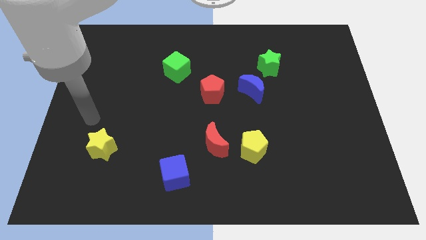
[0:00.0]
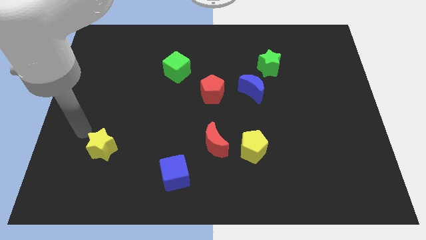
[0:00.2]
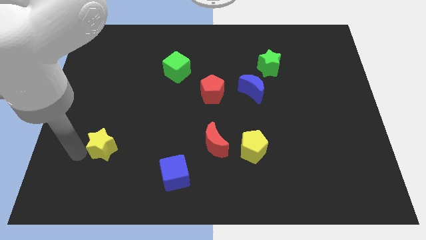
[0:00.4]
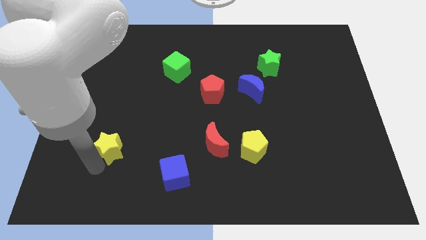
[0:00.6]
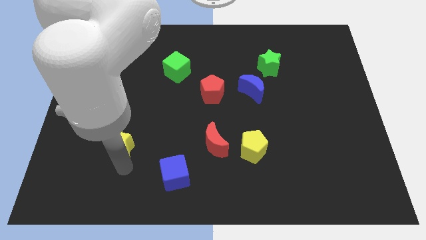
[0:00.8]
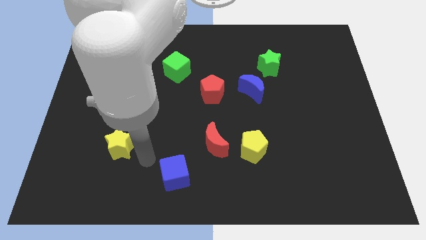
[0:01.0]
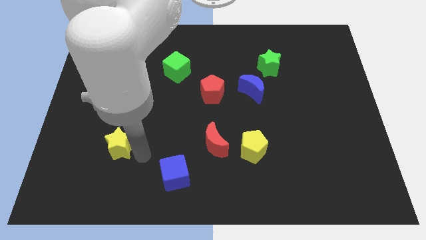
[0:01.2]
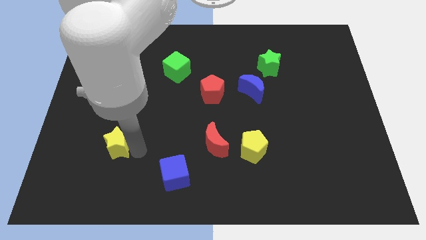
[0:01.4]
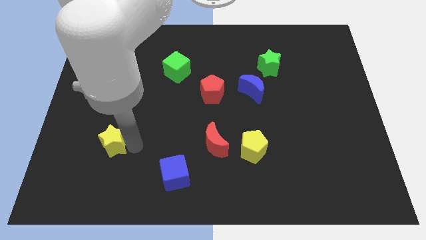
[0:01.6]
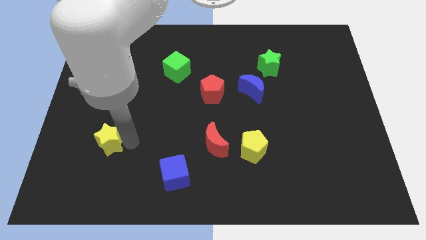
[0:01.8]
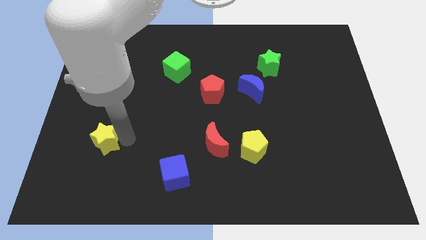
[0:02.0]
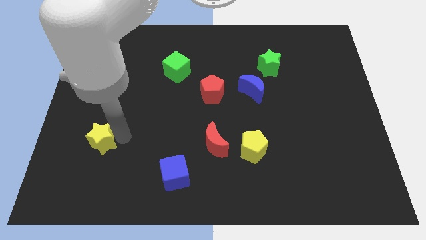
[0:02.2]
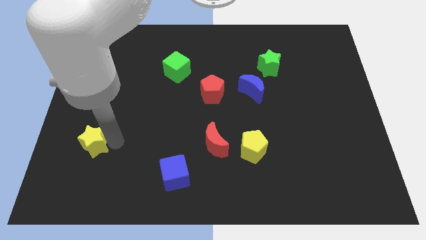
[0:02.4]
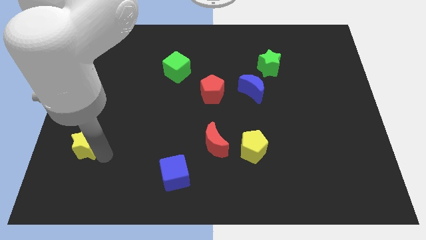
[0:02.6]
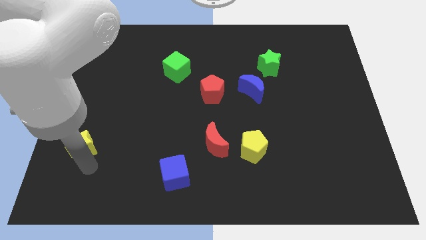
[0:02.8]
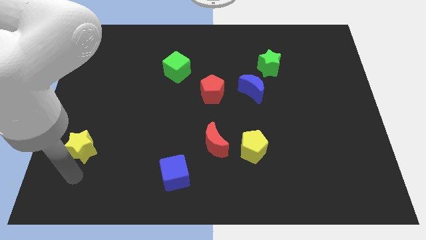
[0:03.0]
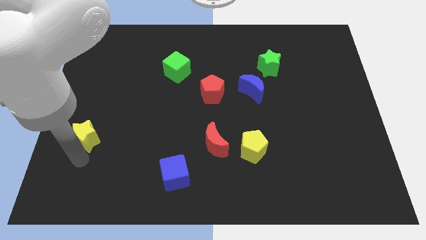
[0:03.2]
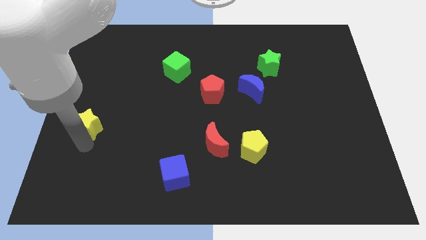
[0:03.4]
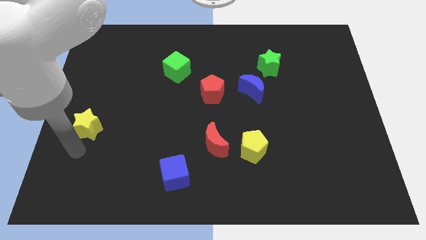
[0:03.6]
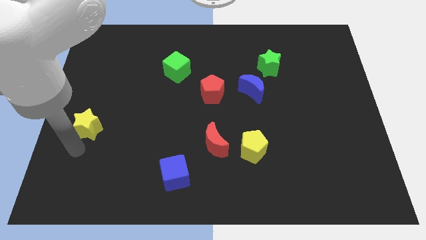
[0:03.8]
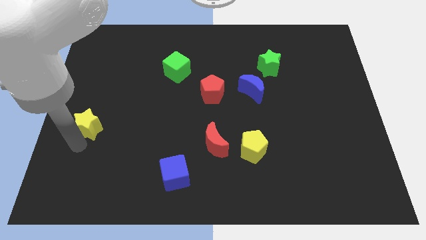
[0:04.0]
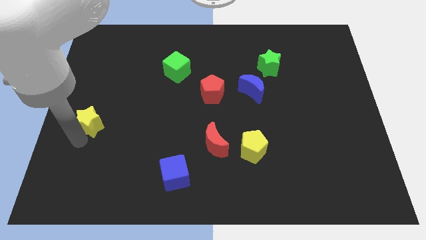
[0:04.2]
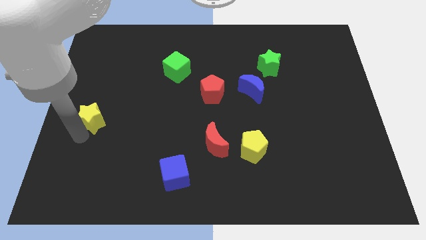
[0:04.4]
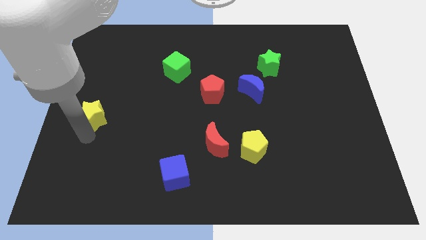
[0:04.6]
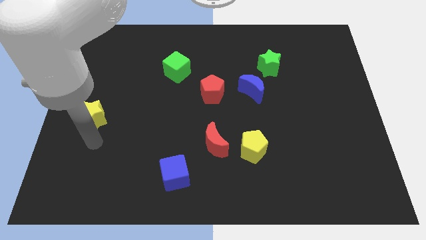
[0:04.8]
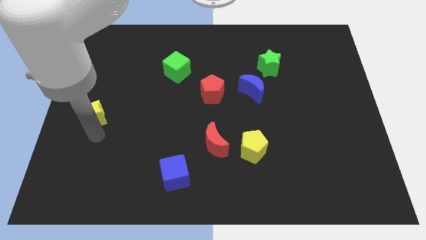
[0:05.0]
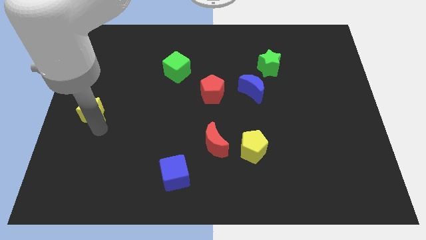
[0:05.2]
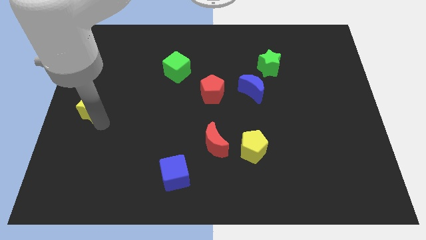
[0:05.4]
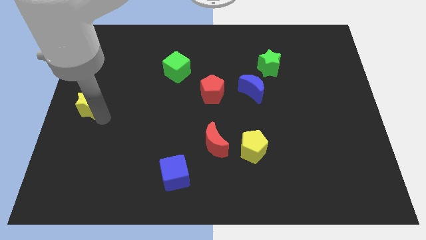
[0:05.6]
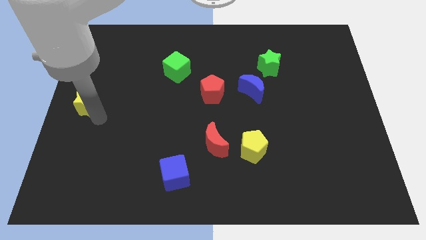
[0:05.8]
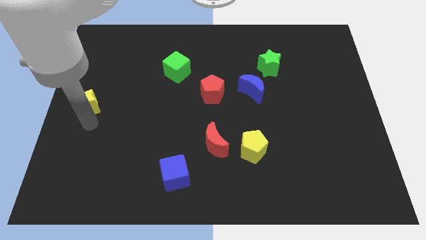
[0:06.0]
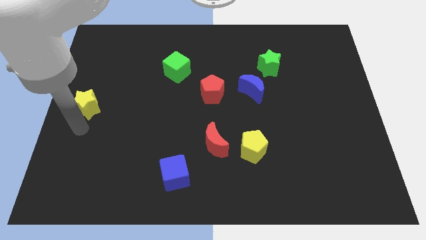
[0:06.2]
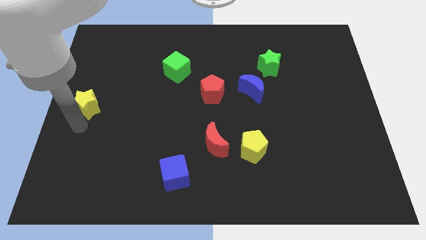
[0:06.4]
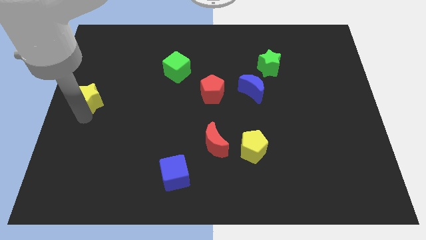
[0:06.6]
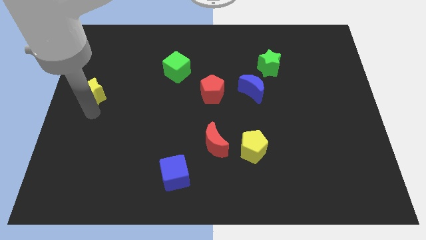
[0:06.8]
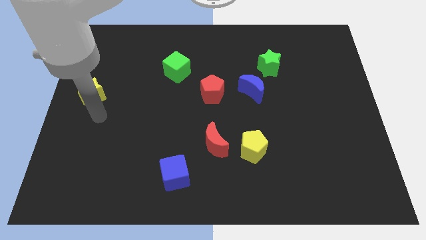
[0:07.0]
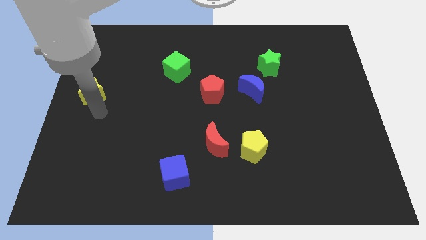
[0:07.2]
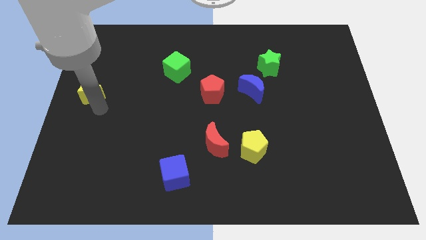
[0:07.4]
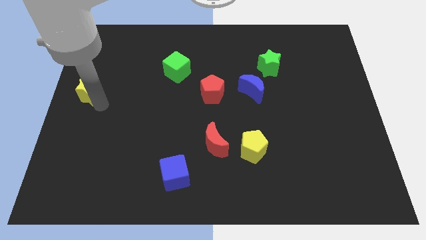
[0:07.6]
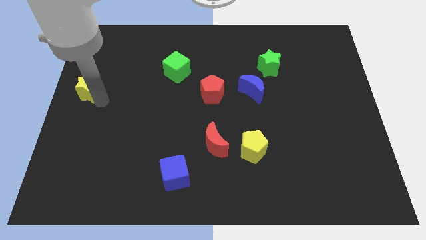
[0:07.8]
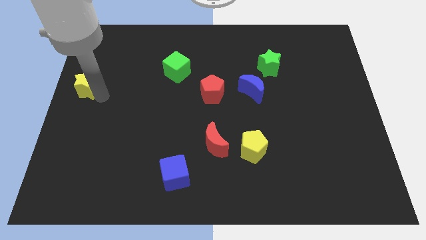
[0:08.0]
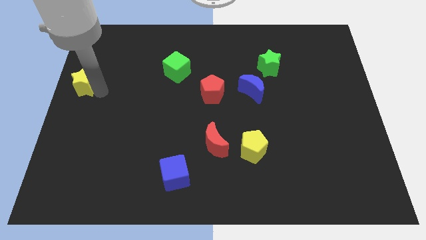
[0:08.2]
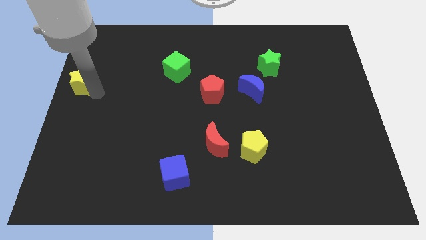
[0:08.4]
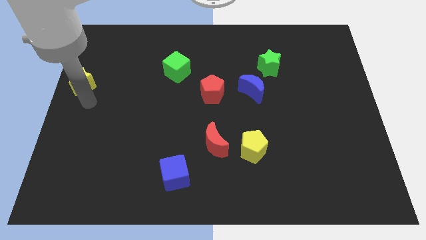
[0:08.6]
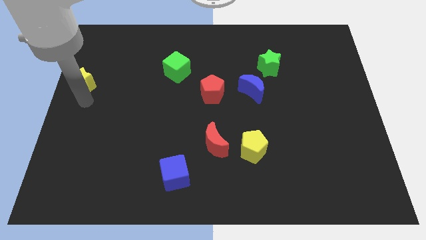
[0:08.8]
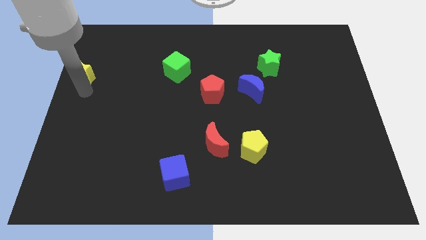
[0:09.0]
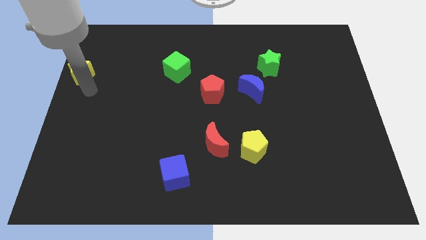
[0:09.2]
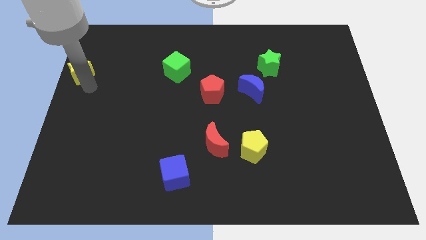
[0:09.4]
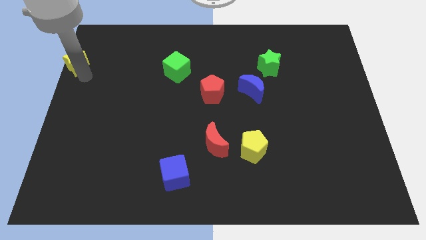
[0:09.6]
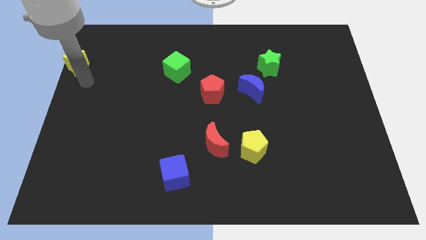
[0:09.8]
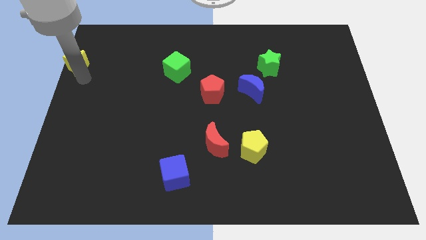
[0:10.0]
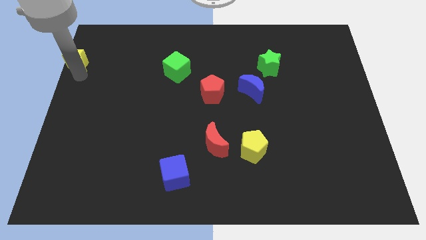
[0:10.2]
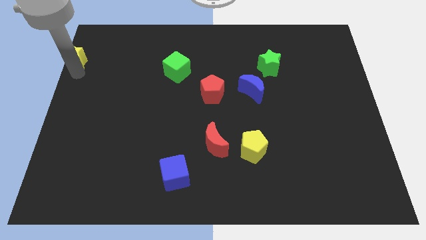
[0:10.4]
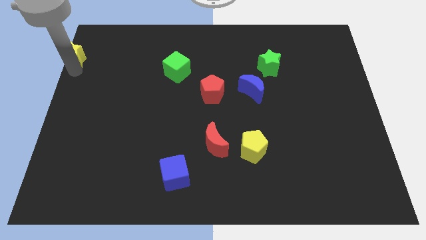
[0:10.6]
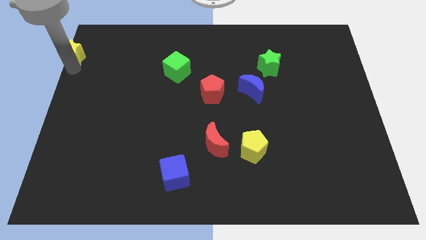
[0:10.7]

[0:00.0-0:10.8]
slide the yellow star to the top left corner

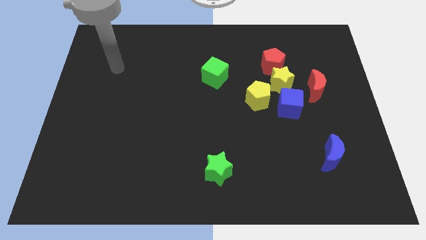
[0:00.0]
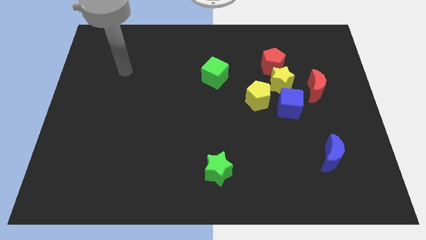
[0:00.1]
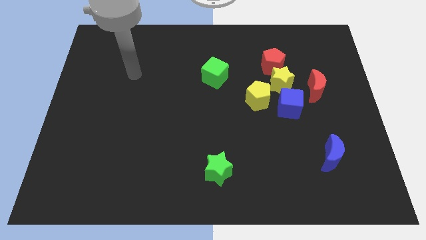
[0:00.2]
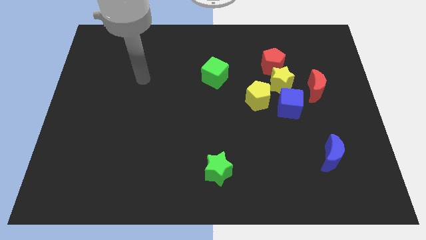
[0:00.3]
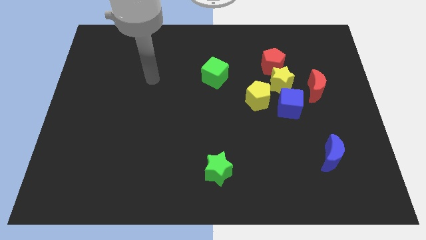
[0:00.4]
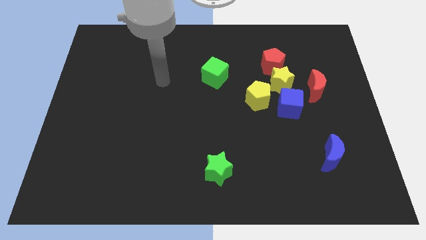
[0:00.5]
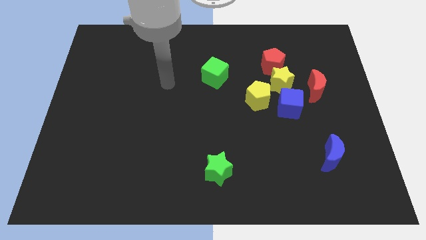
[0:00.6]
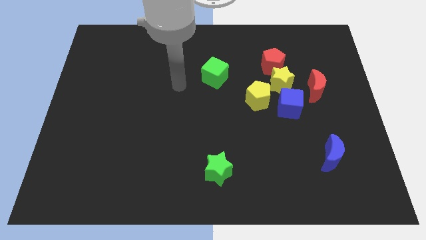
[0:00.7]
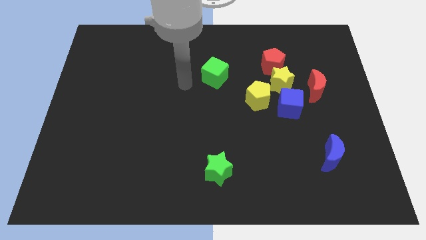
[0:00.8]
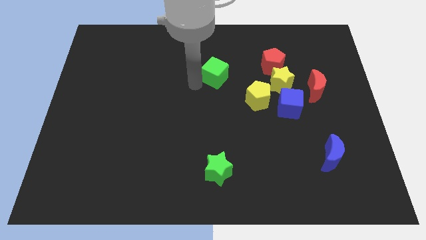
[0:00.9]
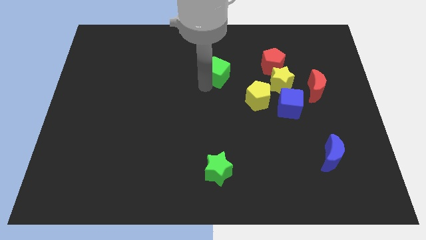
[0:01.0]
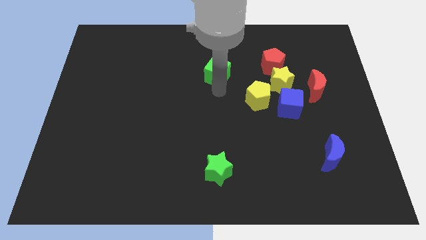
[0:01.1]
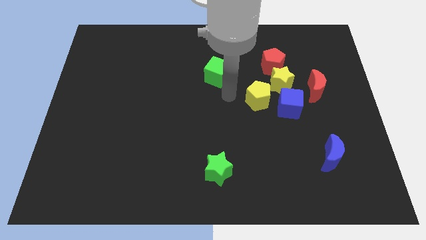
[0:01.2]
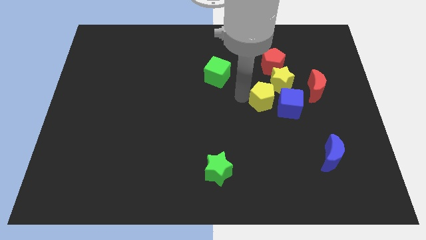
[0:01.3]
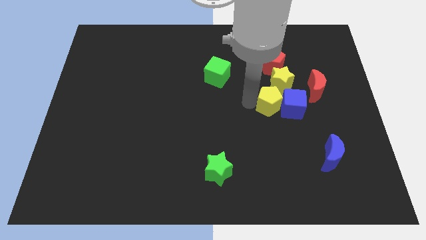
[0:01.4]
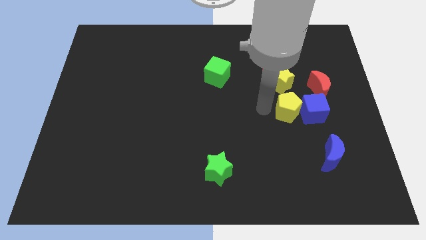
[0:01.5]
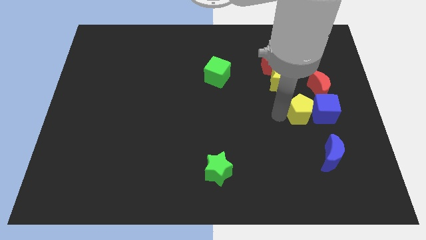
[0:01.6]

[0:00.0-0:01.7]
move the blue cube to the right side
